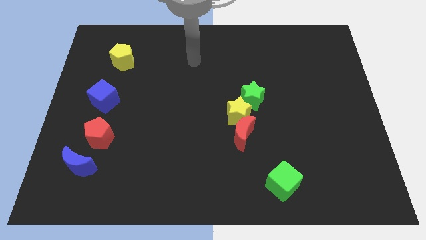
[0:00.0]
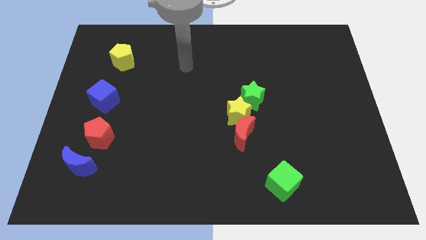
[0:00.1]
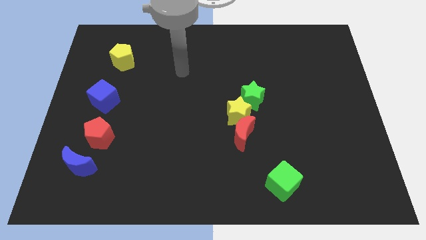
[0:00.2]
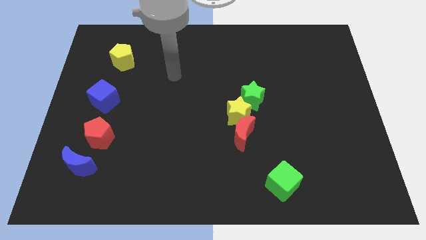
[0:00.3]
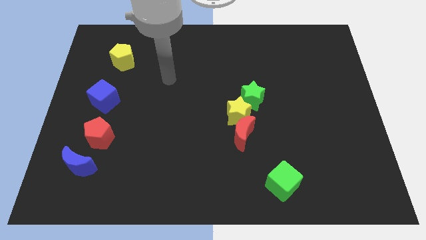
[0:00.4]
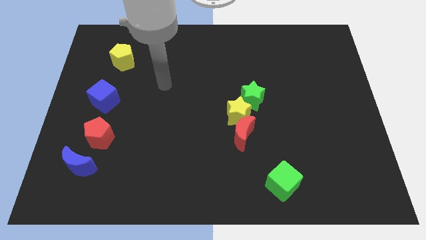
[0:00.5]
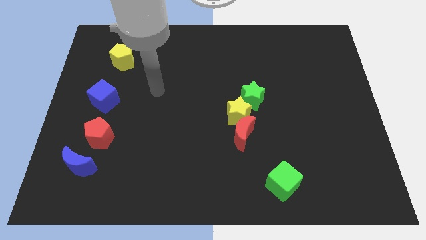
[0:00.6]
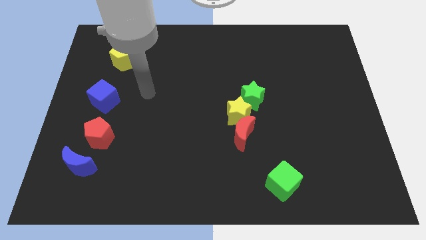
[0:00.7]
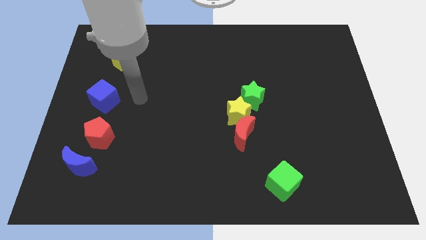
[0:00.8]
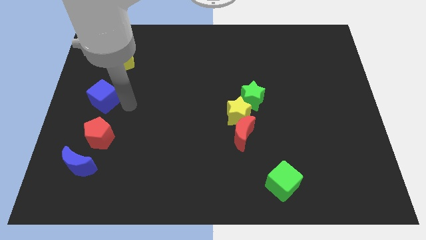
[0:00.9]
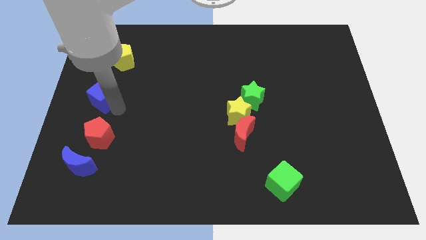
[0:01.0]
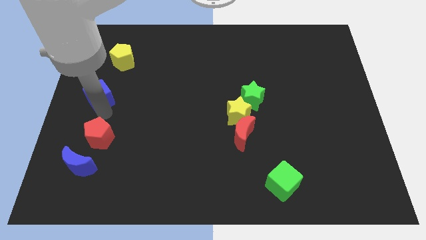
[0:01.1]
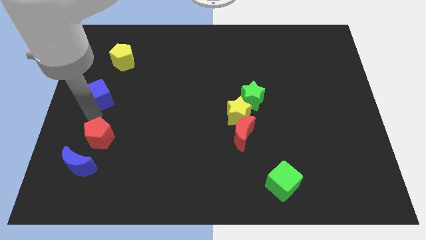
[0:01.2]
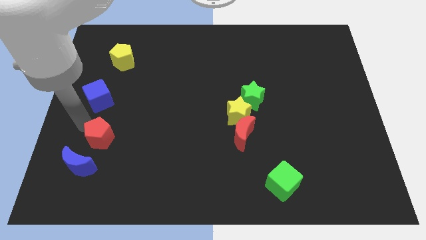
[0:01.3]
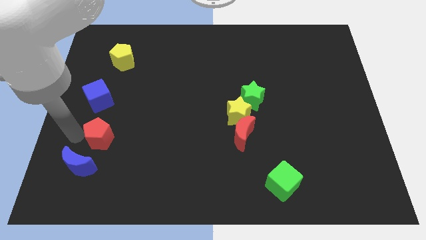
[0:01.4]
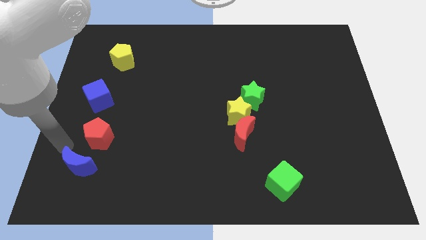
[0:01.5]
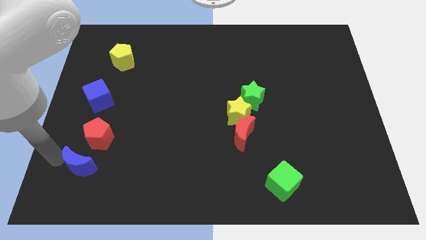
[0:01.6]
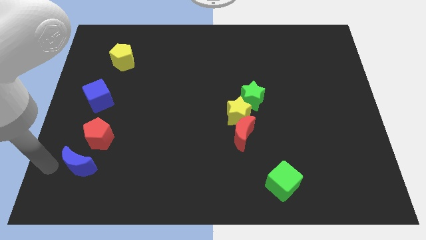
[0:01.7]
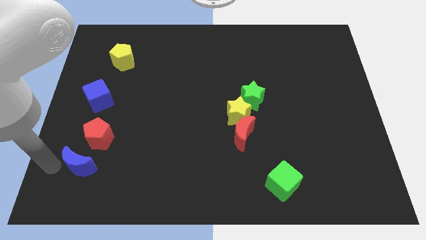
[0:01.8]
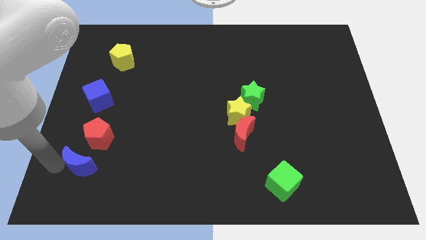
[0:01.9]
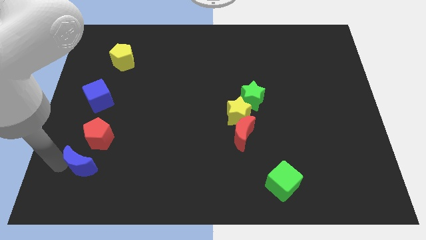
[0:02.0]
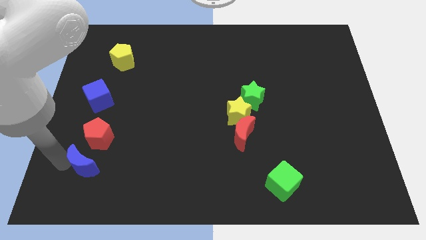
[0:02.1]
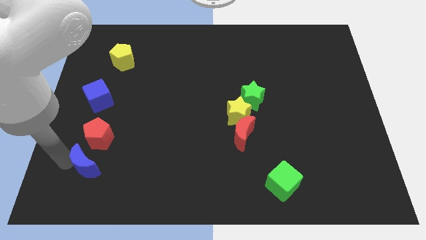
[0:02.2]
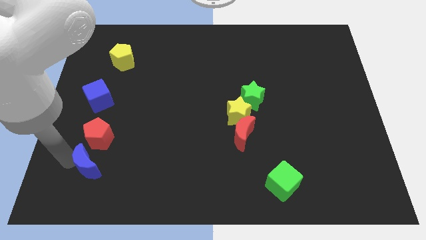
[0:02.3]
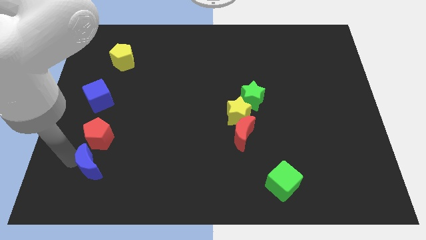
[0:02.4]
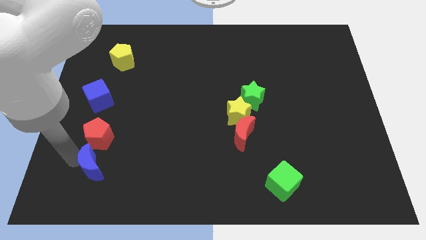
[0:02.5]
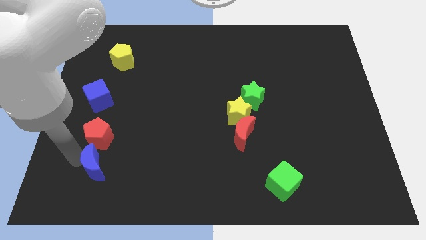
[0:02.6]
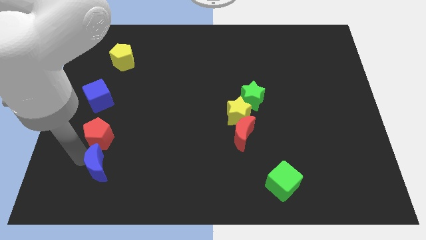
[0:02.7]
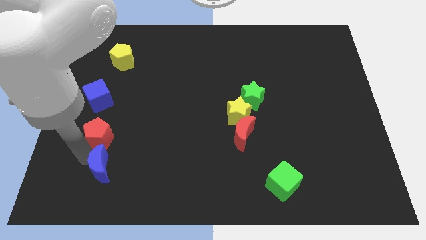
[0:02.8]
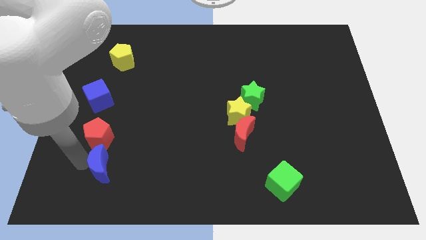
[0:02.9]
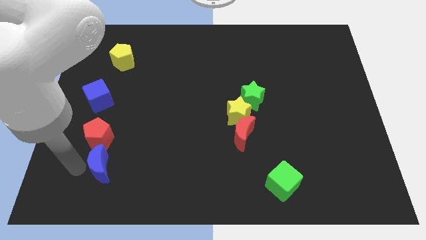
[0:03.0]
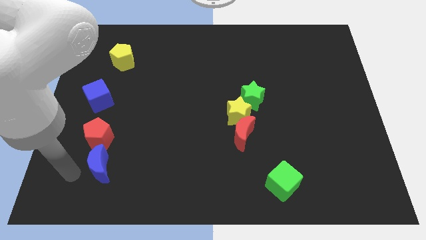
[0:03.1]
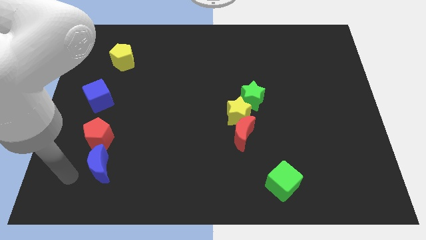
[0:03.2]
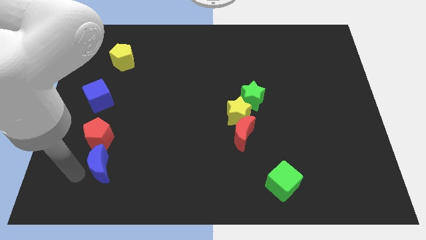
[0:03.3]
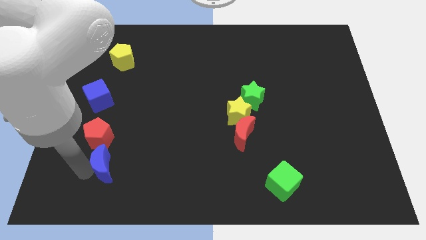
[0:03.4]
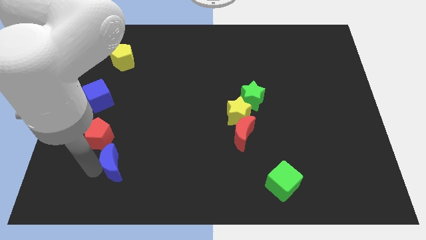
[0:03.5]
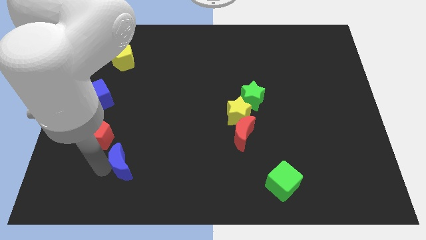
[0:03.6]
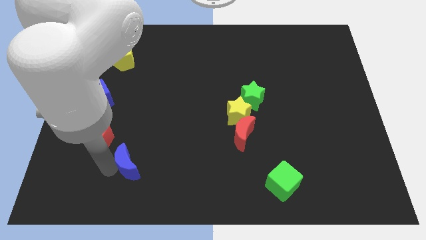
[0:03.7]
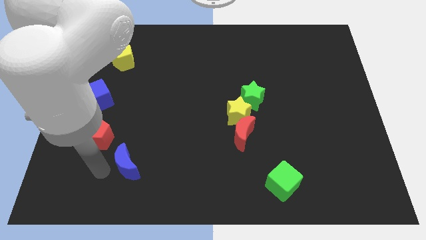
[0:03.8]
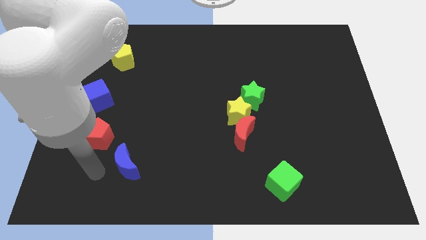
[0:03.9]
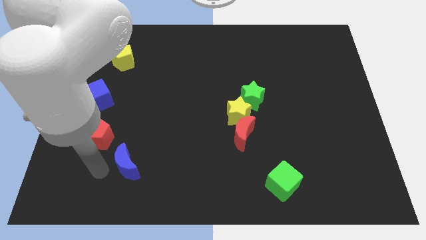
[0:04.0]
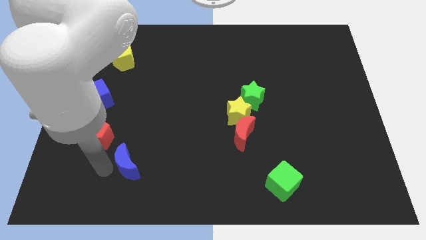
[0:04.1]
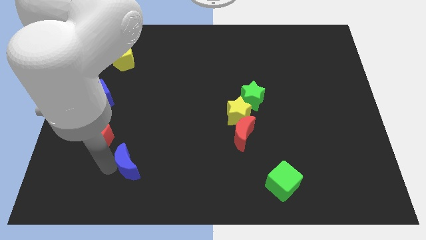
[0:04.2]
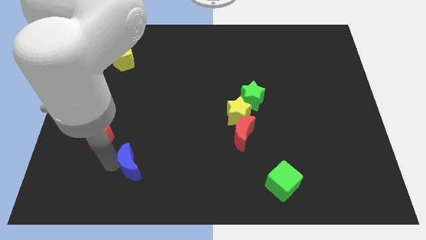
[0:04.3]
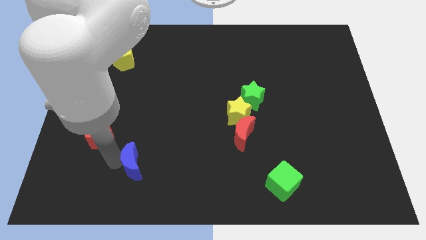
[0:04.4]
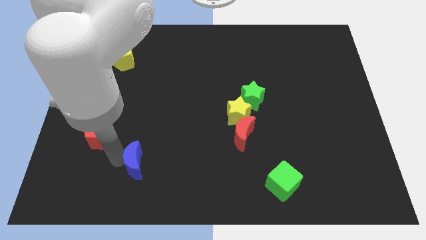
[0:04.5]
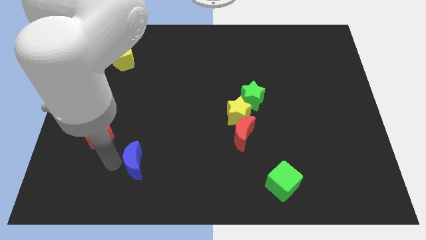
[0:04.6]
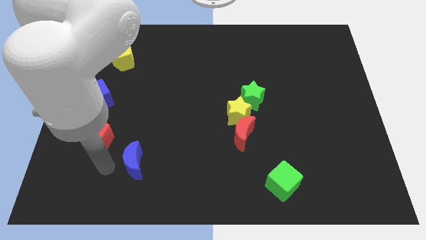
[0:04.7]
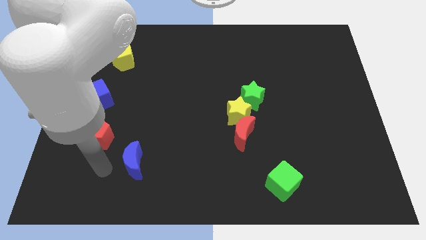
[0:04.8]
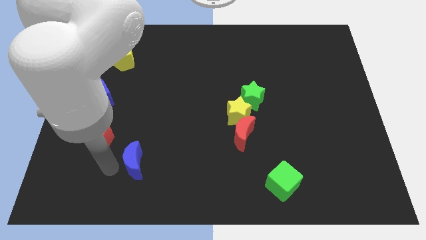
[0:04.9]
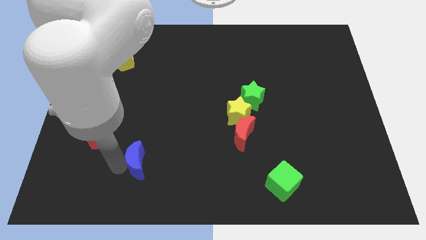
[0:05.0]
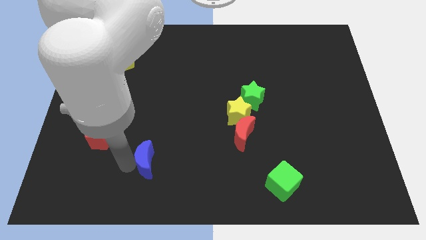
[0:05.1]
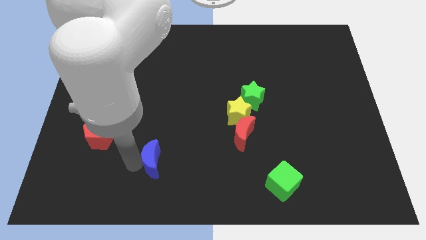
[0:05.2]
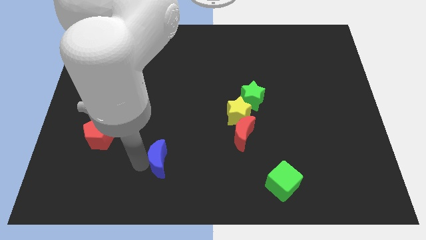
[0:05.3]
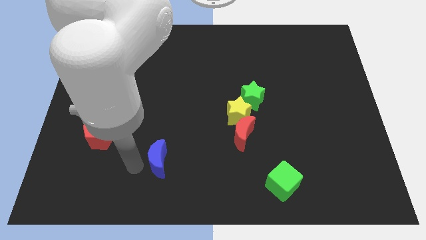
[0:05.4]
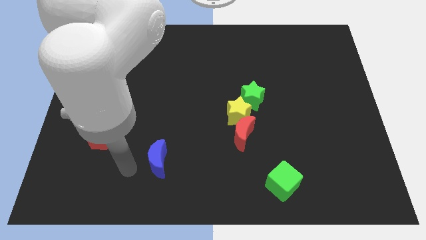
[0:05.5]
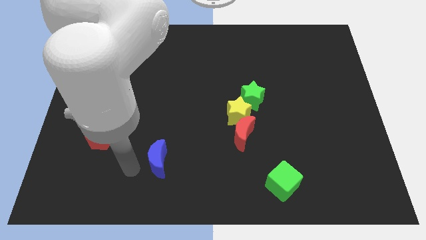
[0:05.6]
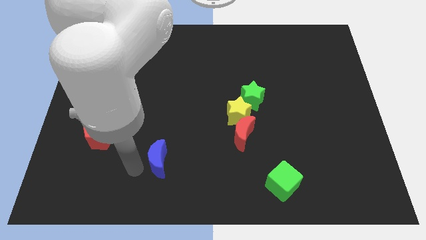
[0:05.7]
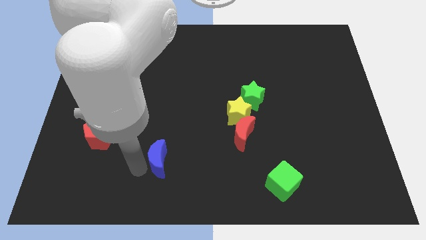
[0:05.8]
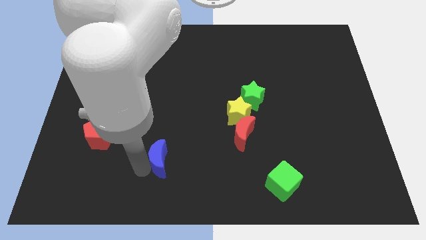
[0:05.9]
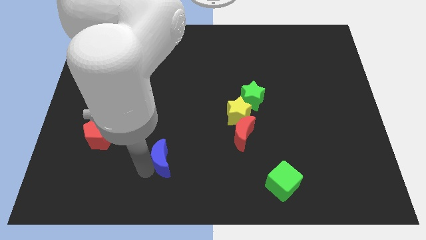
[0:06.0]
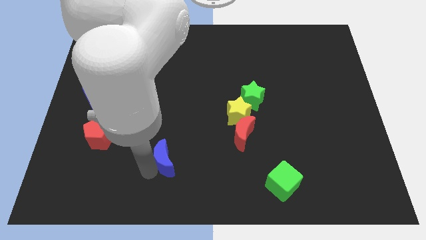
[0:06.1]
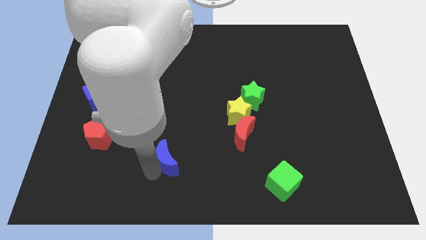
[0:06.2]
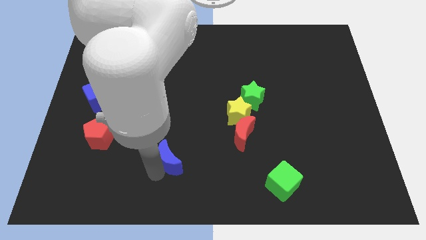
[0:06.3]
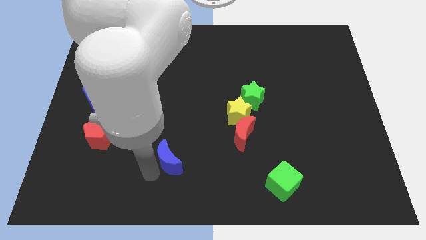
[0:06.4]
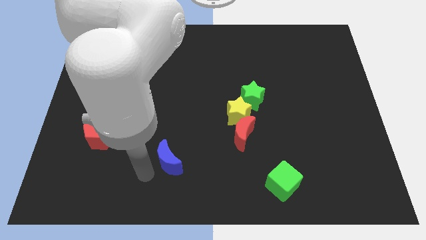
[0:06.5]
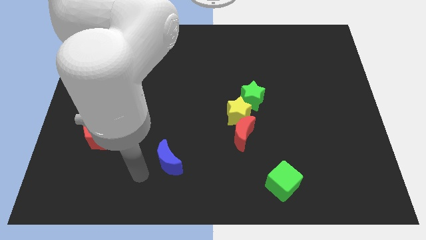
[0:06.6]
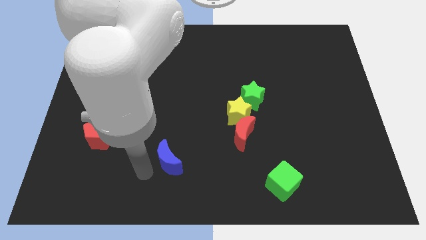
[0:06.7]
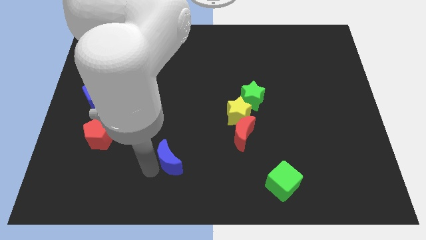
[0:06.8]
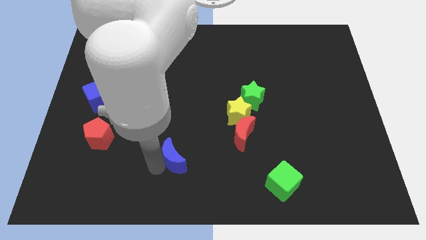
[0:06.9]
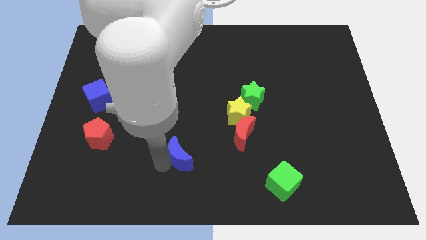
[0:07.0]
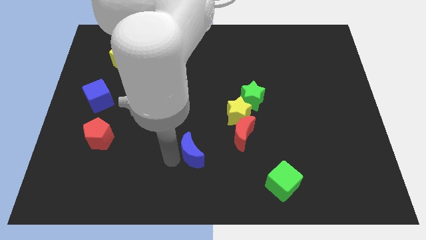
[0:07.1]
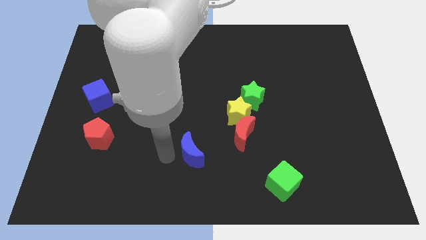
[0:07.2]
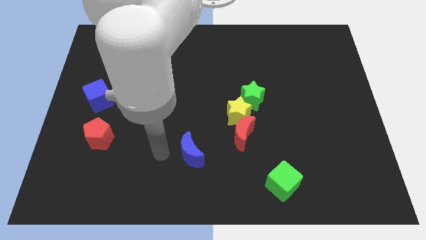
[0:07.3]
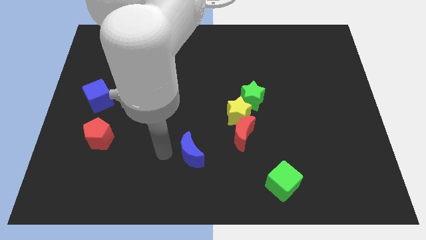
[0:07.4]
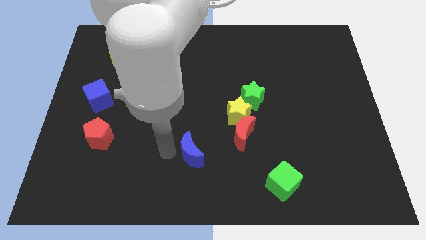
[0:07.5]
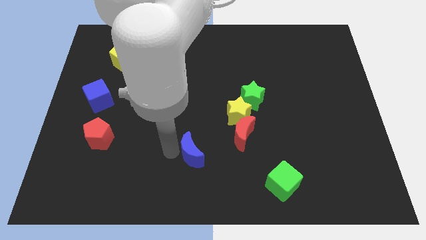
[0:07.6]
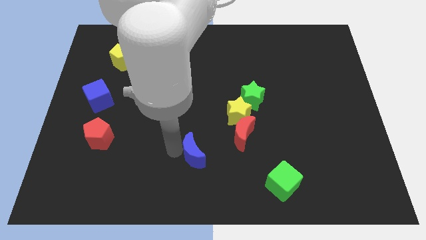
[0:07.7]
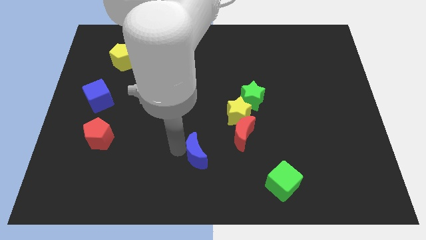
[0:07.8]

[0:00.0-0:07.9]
slide the blue moon diagonally down and to the left of the red moon
